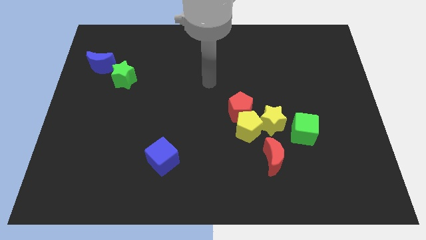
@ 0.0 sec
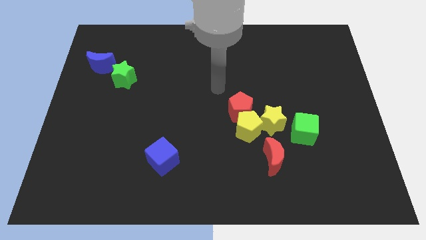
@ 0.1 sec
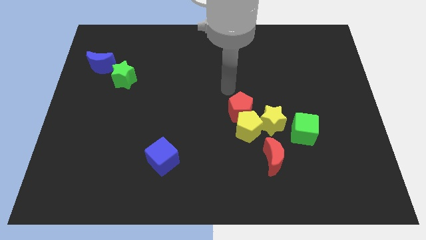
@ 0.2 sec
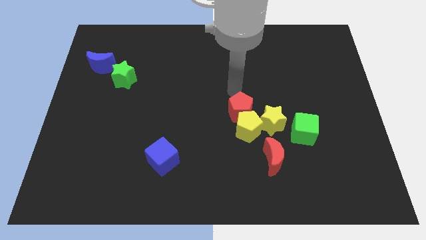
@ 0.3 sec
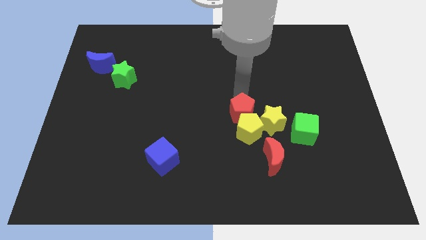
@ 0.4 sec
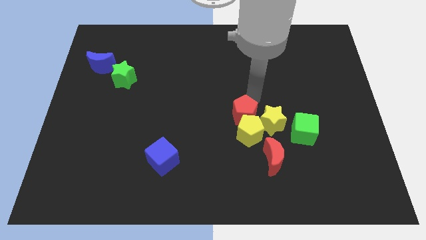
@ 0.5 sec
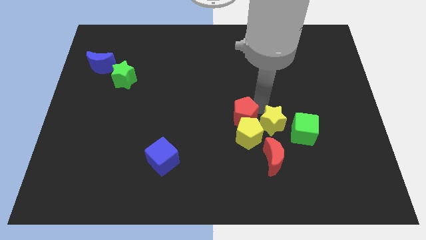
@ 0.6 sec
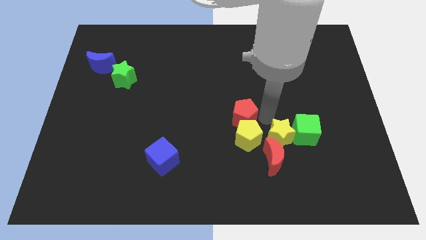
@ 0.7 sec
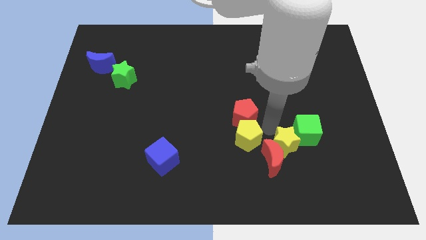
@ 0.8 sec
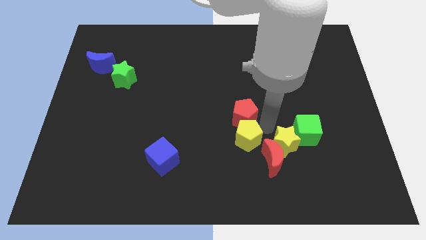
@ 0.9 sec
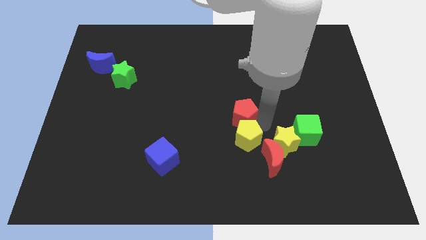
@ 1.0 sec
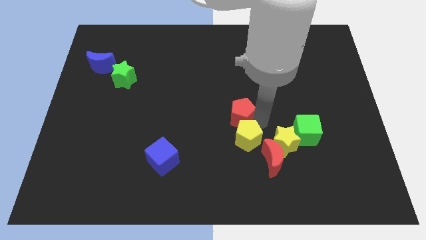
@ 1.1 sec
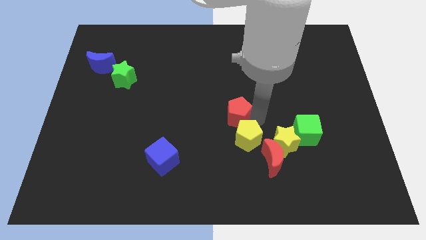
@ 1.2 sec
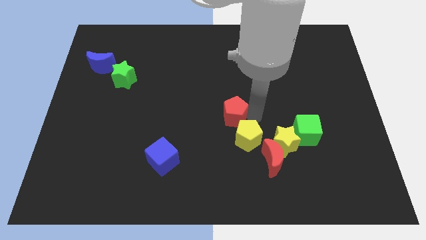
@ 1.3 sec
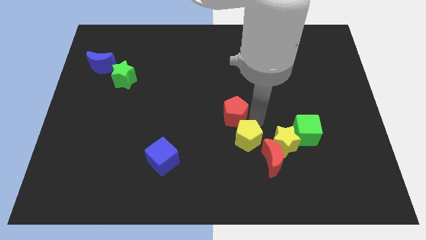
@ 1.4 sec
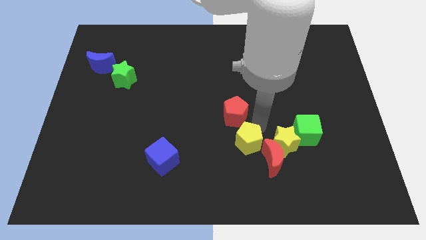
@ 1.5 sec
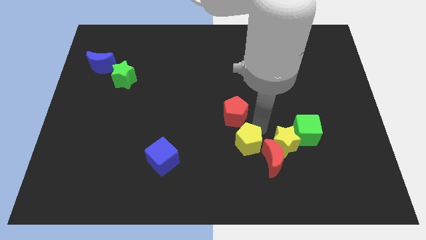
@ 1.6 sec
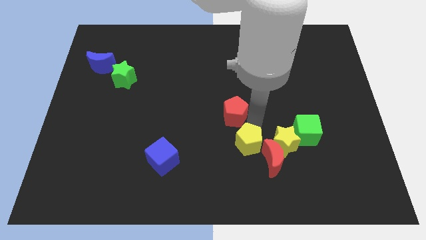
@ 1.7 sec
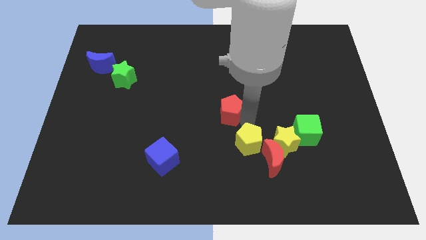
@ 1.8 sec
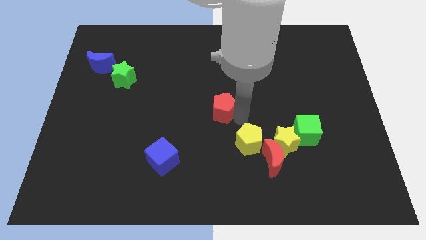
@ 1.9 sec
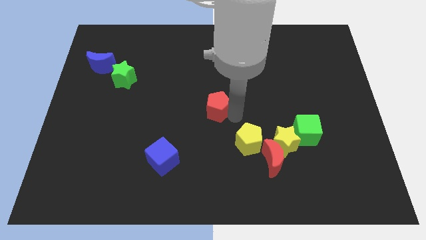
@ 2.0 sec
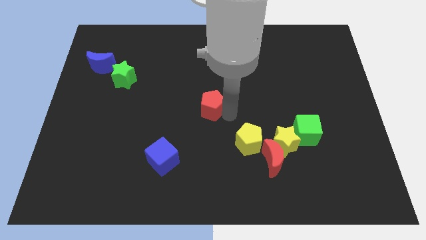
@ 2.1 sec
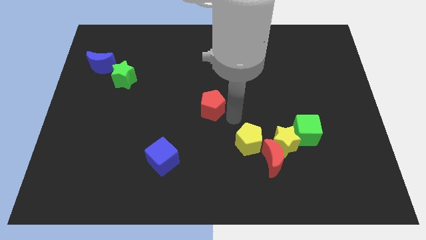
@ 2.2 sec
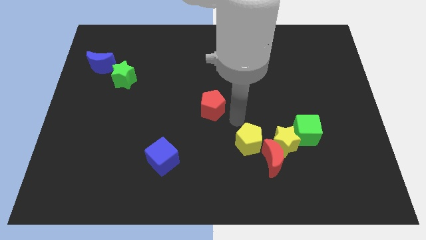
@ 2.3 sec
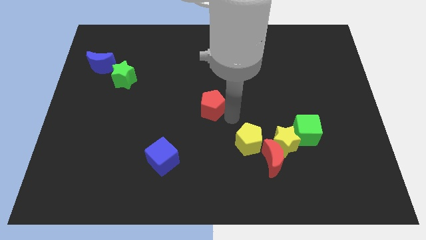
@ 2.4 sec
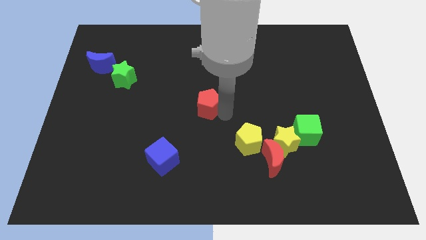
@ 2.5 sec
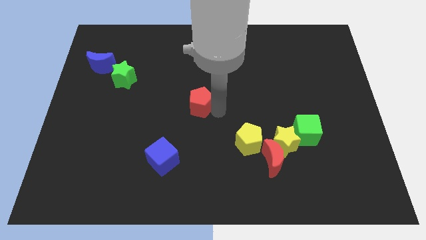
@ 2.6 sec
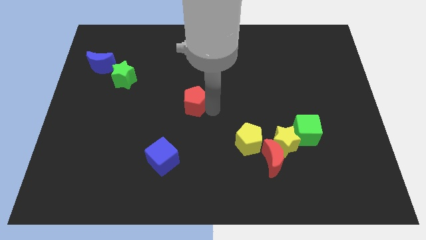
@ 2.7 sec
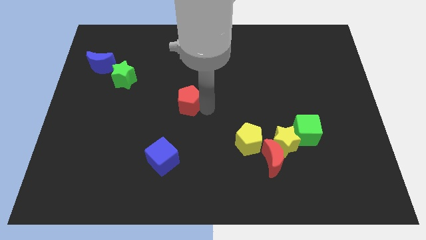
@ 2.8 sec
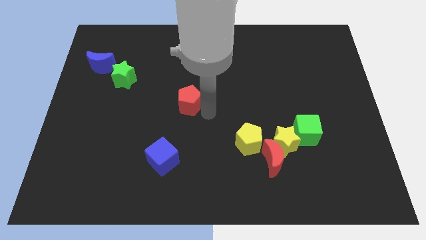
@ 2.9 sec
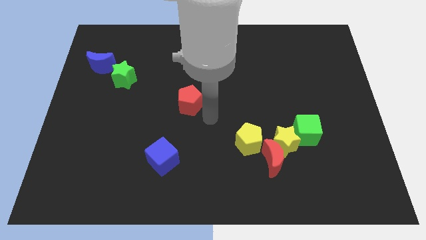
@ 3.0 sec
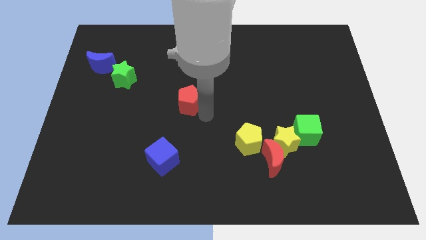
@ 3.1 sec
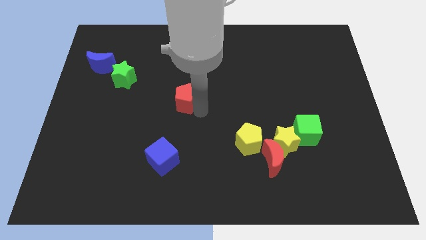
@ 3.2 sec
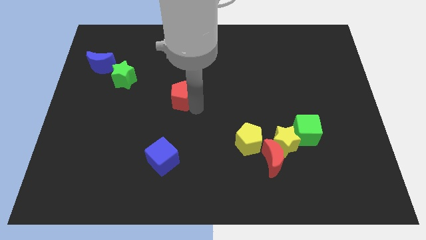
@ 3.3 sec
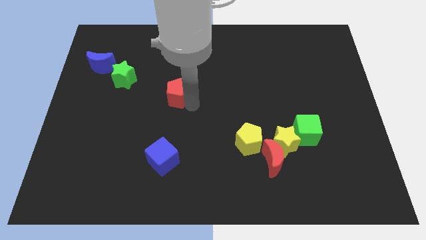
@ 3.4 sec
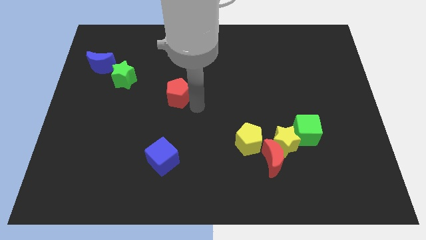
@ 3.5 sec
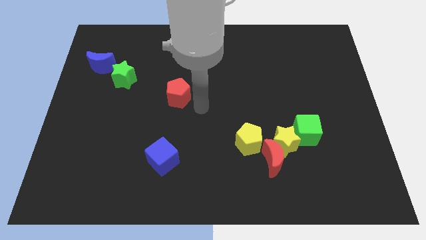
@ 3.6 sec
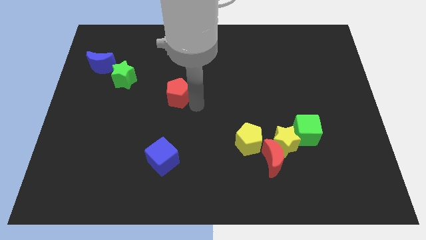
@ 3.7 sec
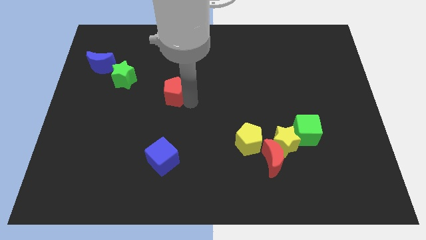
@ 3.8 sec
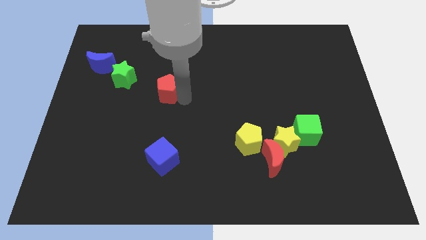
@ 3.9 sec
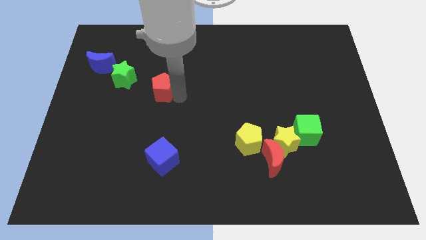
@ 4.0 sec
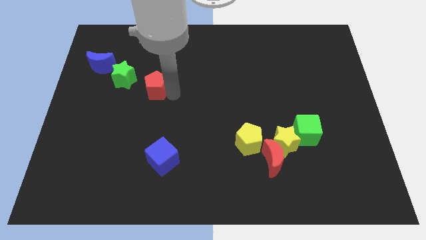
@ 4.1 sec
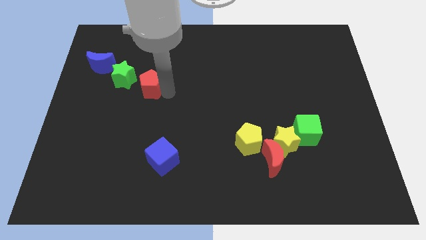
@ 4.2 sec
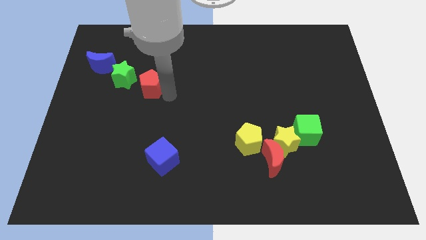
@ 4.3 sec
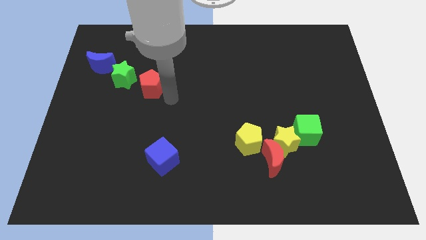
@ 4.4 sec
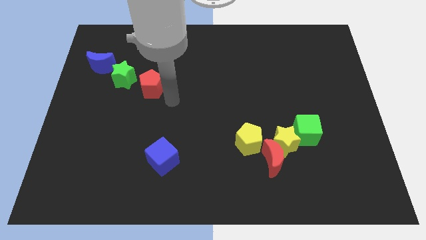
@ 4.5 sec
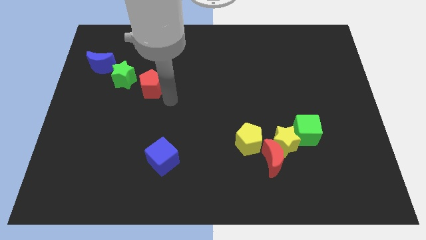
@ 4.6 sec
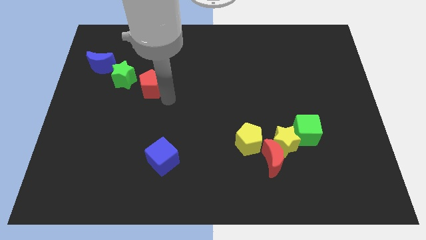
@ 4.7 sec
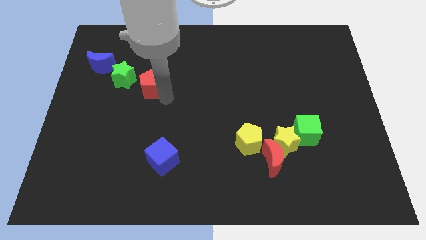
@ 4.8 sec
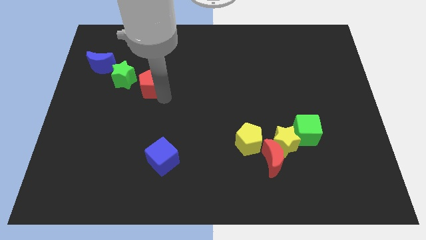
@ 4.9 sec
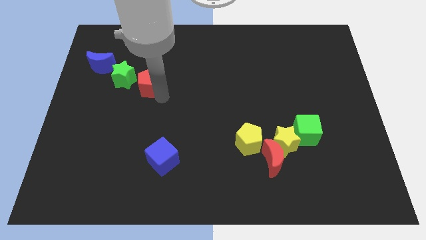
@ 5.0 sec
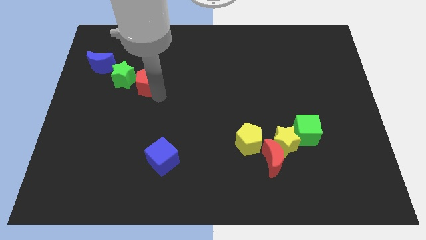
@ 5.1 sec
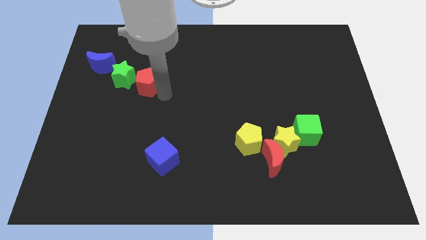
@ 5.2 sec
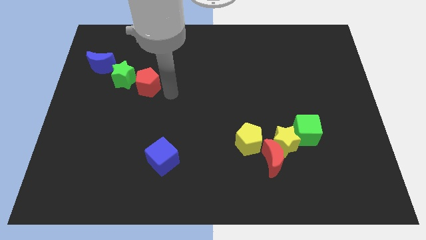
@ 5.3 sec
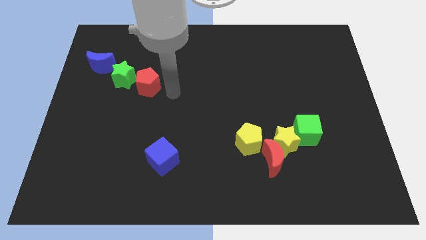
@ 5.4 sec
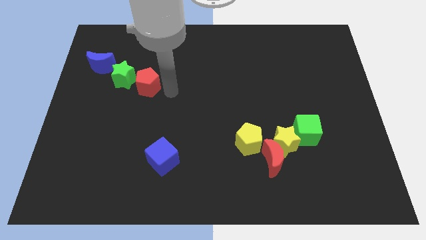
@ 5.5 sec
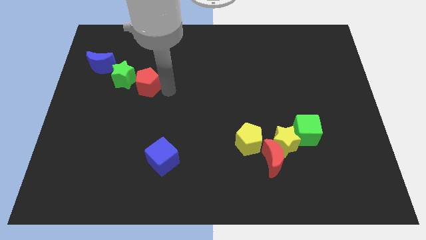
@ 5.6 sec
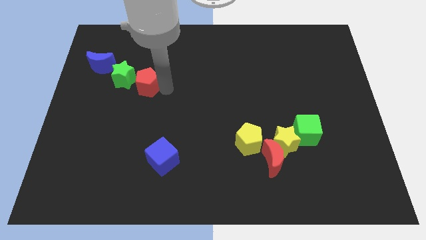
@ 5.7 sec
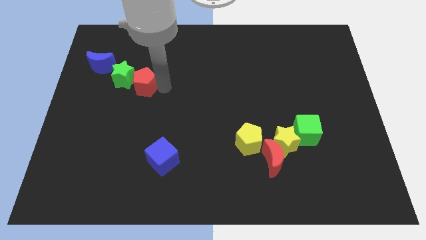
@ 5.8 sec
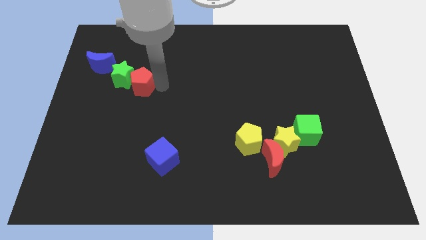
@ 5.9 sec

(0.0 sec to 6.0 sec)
push the red pentagon towards the green star

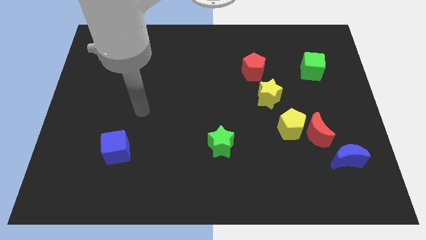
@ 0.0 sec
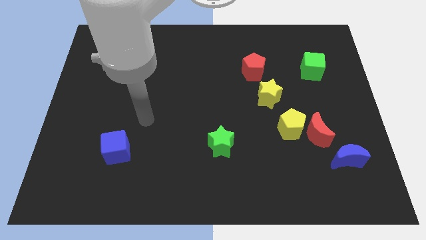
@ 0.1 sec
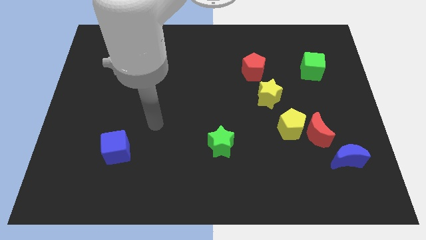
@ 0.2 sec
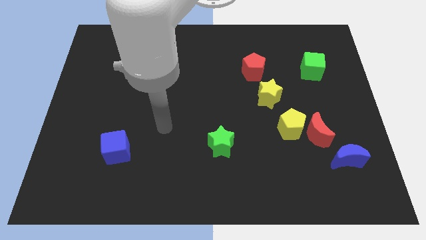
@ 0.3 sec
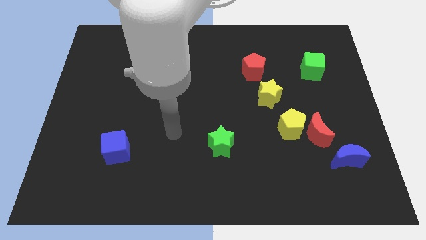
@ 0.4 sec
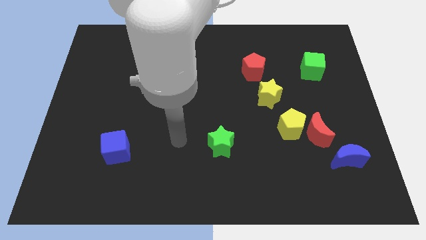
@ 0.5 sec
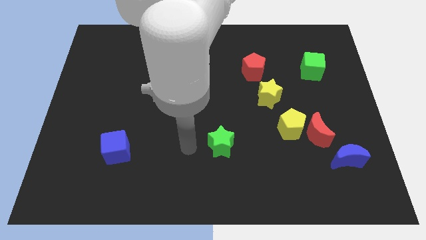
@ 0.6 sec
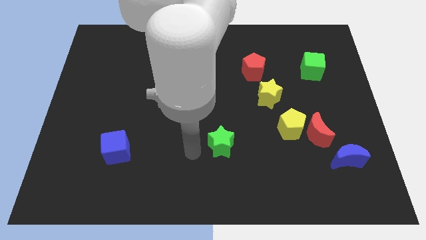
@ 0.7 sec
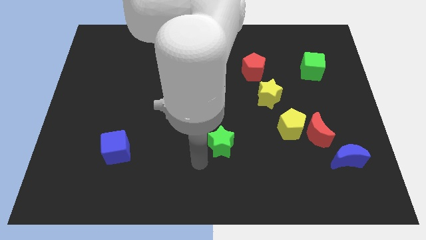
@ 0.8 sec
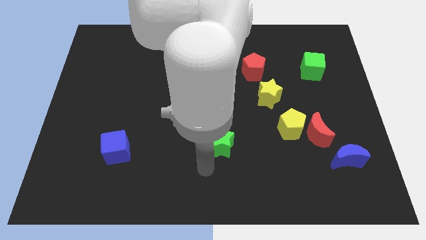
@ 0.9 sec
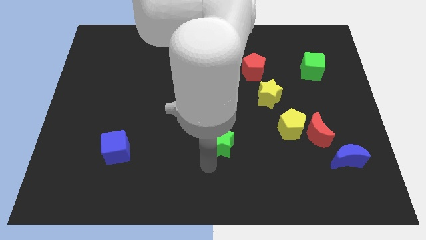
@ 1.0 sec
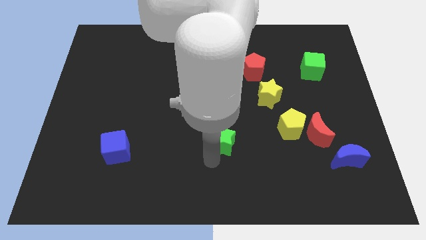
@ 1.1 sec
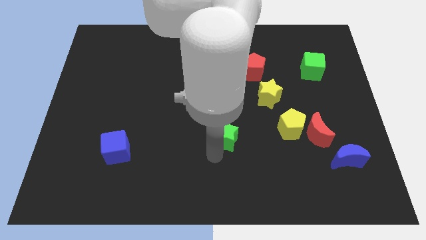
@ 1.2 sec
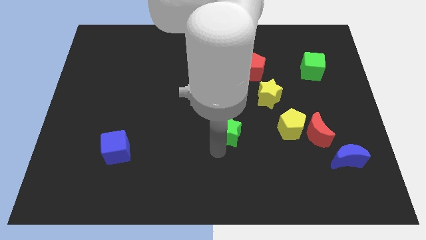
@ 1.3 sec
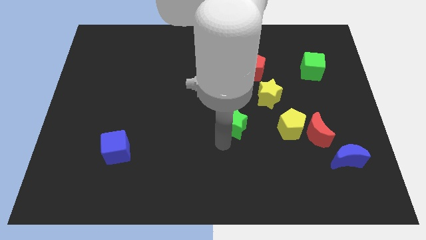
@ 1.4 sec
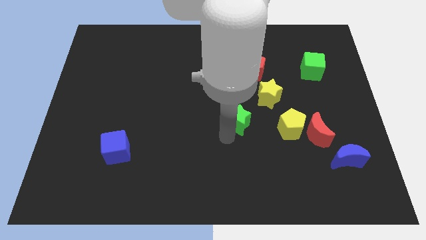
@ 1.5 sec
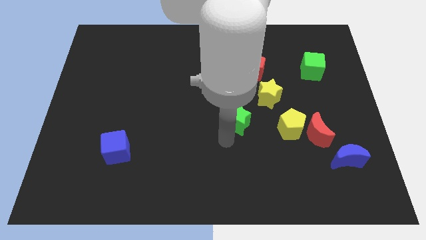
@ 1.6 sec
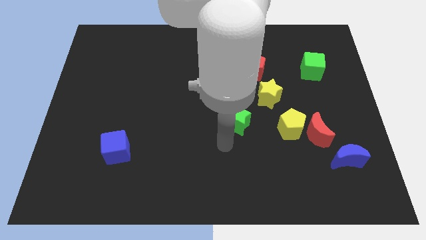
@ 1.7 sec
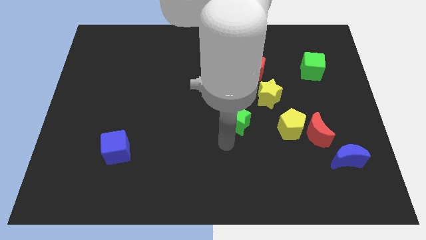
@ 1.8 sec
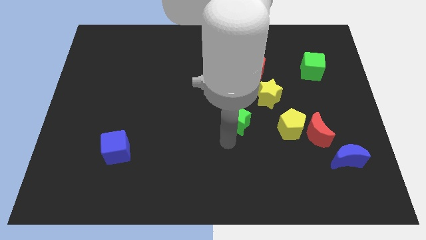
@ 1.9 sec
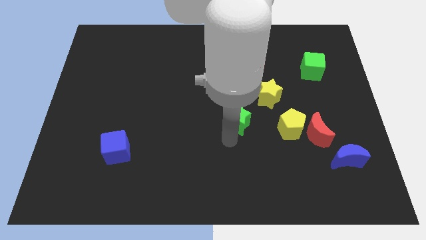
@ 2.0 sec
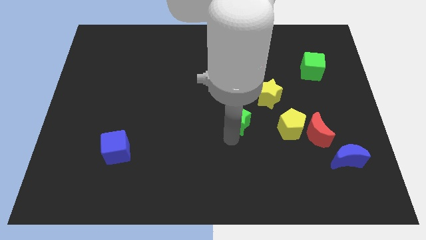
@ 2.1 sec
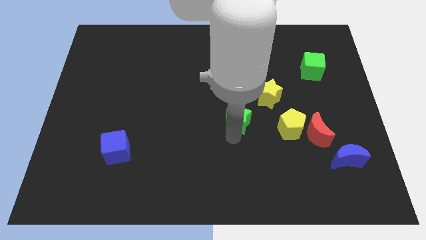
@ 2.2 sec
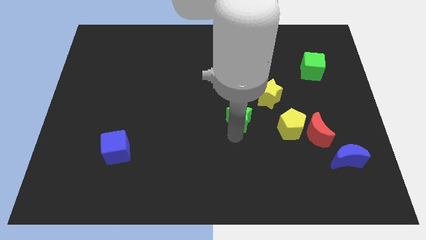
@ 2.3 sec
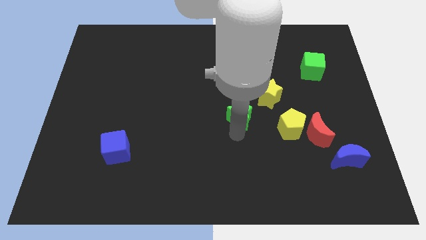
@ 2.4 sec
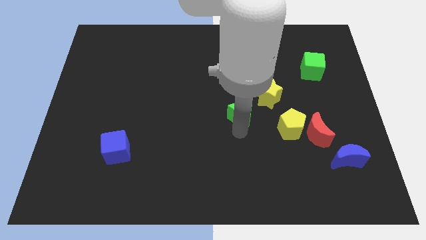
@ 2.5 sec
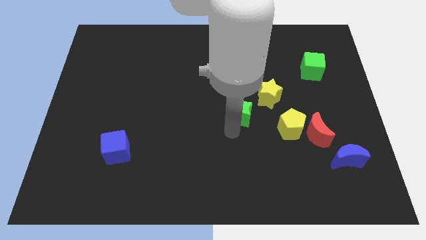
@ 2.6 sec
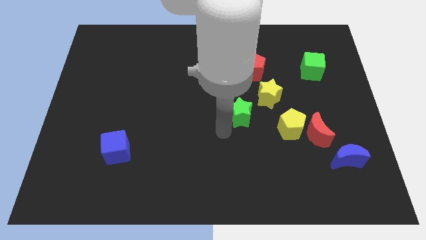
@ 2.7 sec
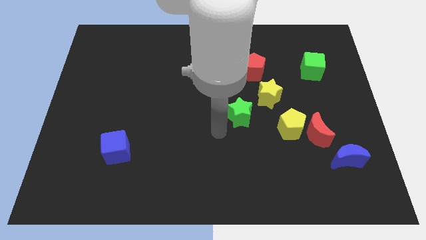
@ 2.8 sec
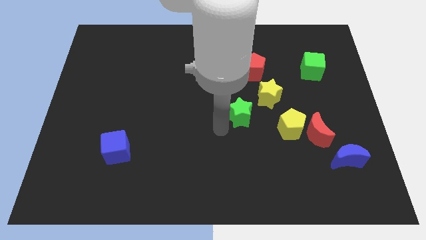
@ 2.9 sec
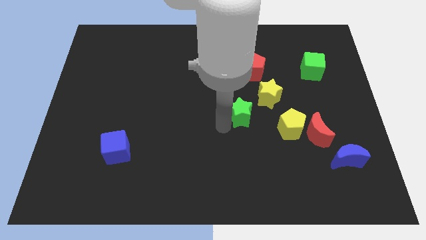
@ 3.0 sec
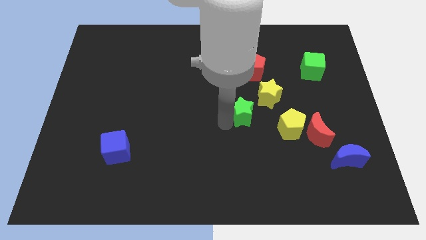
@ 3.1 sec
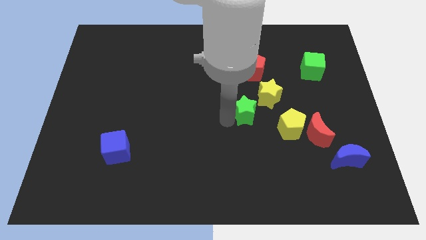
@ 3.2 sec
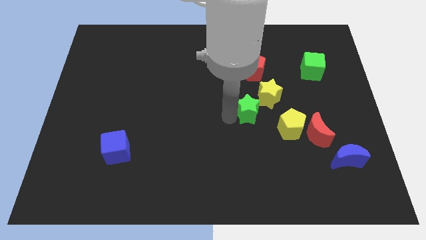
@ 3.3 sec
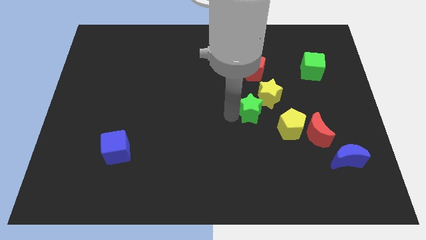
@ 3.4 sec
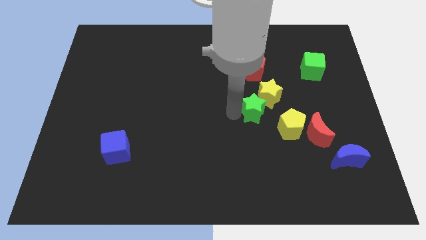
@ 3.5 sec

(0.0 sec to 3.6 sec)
move the green star next to the yellow star
